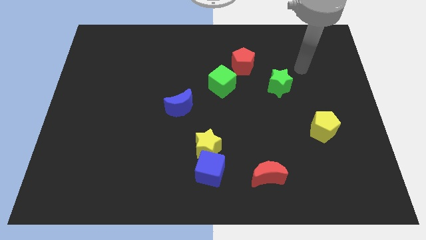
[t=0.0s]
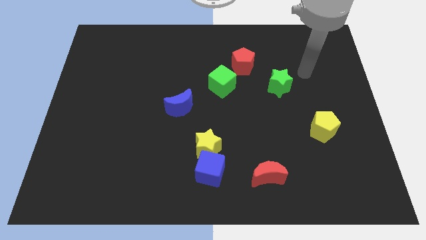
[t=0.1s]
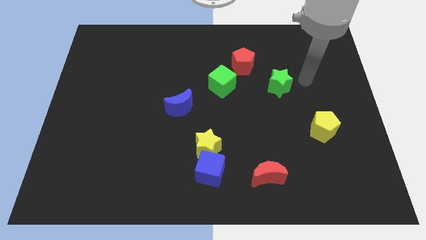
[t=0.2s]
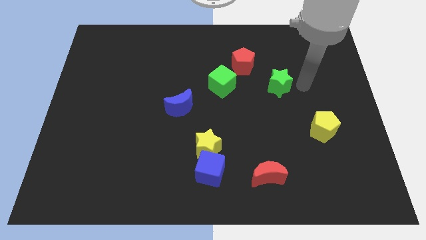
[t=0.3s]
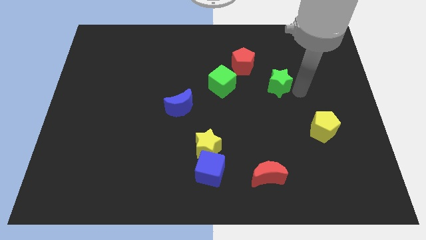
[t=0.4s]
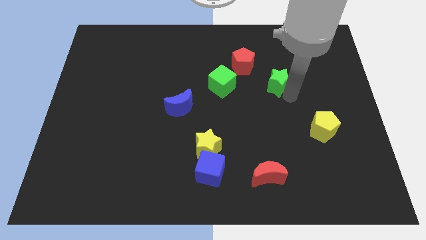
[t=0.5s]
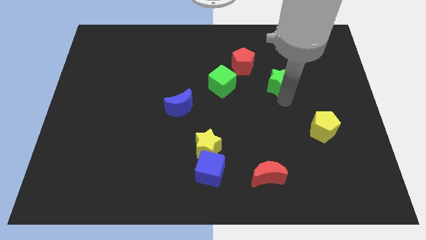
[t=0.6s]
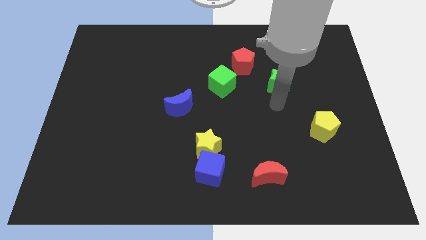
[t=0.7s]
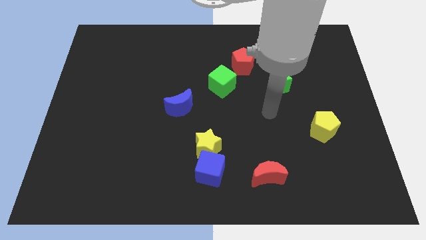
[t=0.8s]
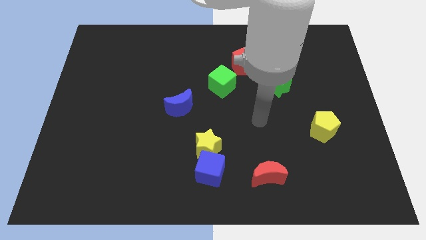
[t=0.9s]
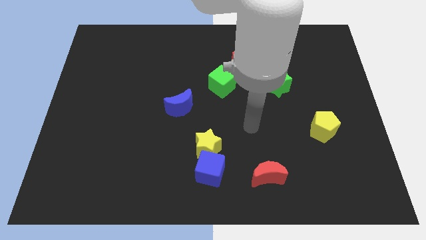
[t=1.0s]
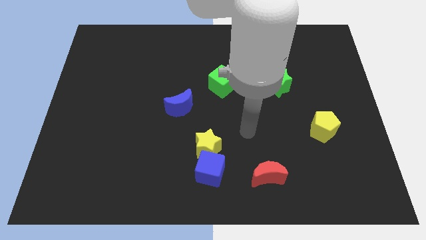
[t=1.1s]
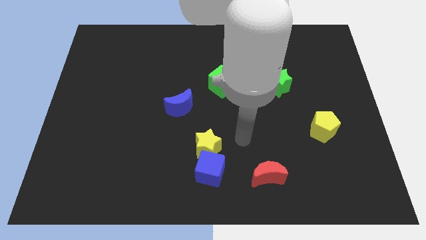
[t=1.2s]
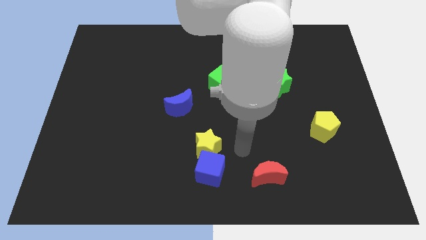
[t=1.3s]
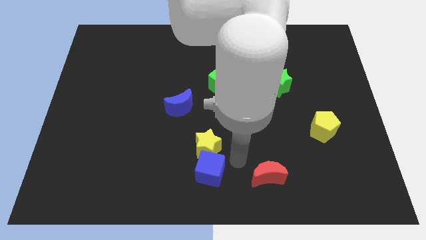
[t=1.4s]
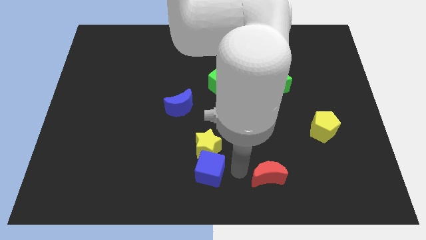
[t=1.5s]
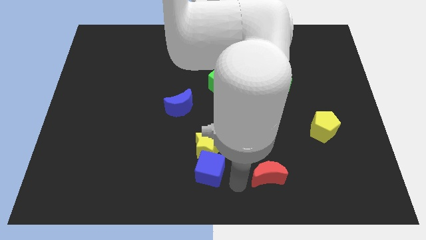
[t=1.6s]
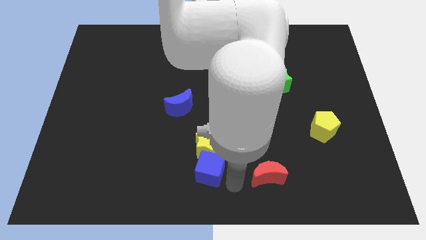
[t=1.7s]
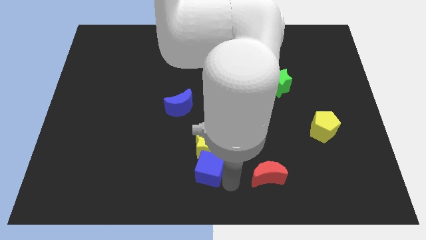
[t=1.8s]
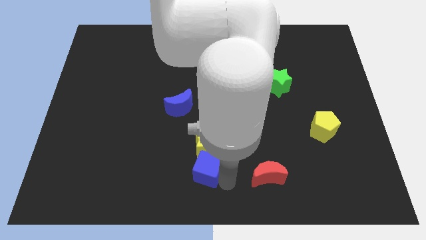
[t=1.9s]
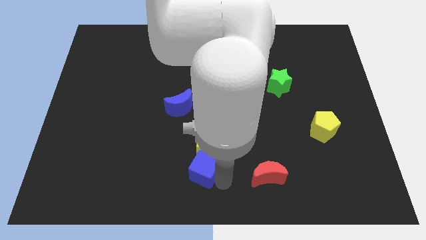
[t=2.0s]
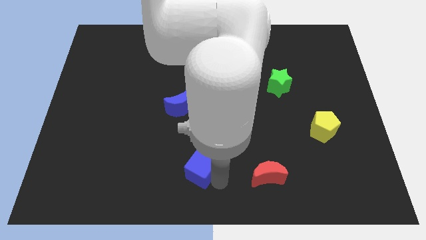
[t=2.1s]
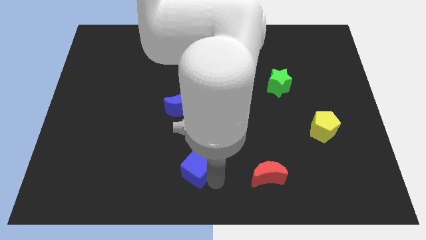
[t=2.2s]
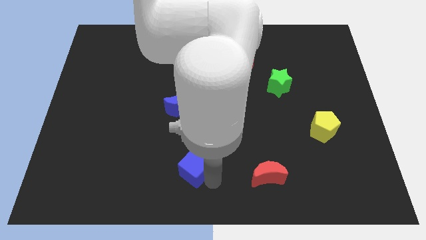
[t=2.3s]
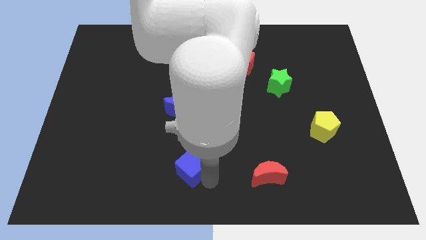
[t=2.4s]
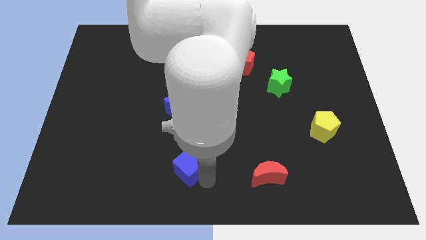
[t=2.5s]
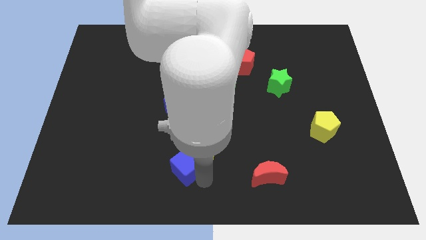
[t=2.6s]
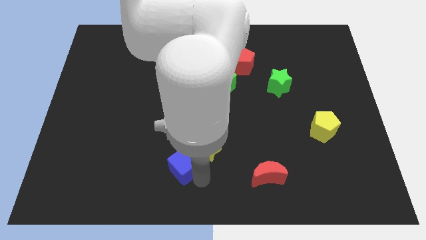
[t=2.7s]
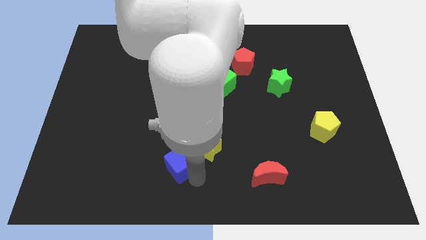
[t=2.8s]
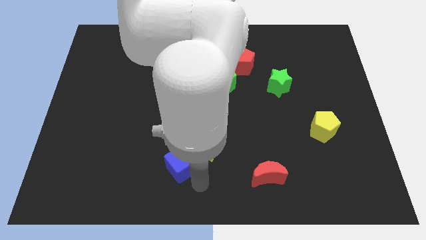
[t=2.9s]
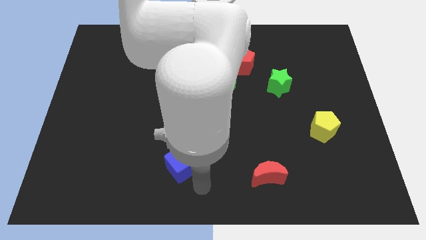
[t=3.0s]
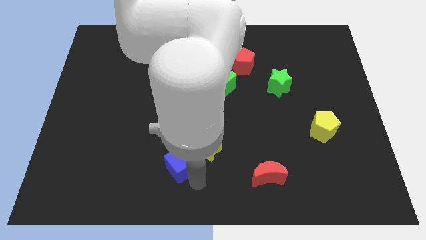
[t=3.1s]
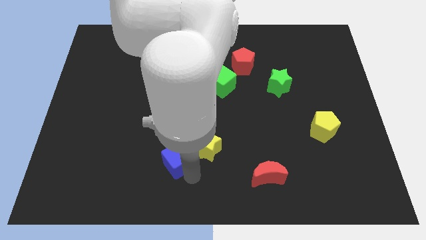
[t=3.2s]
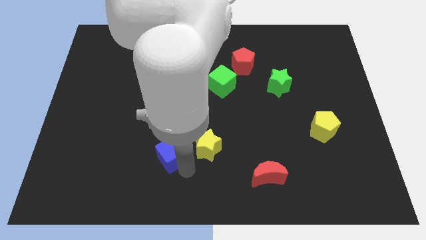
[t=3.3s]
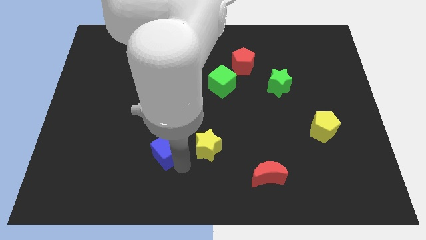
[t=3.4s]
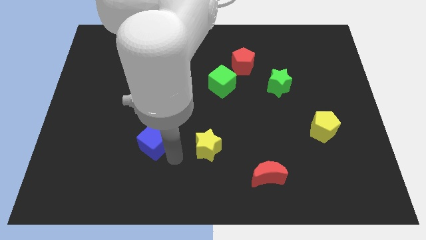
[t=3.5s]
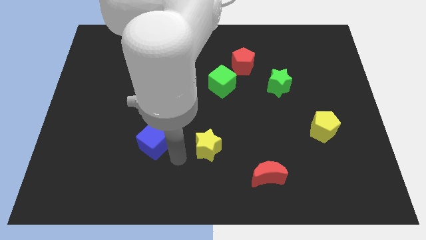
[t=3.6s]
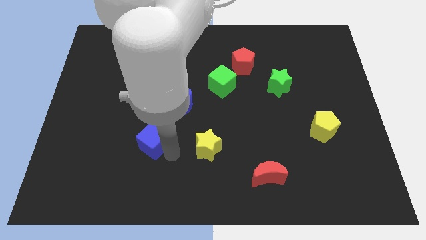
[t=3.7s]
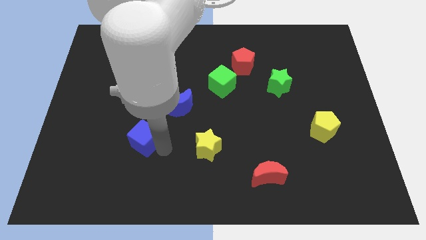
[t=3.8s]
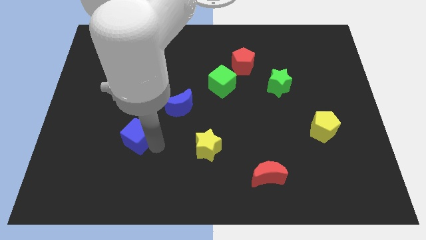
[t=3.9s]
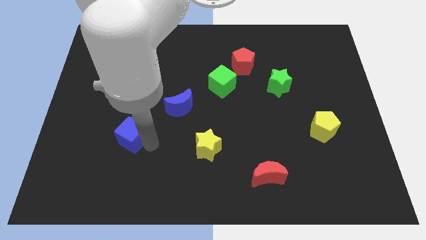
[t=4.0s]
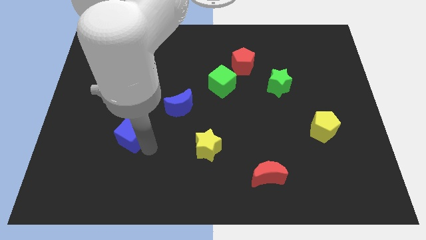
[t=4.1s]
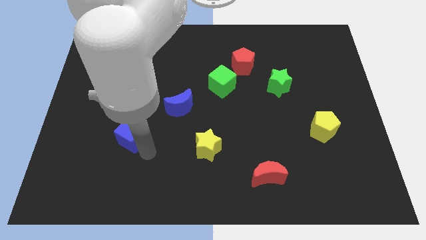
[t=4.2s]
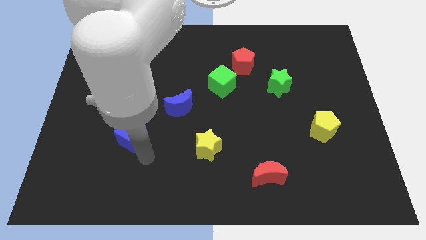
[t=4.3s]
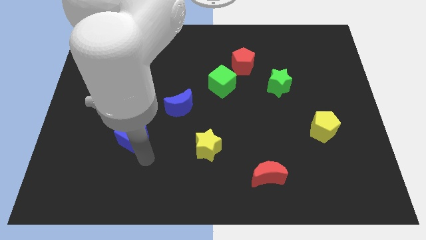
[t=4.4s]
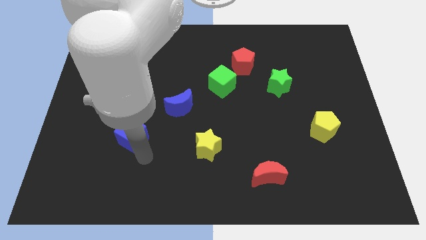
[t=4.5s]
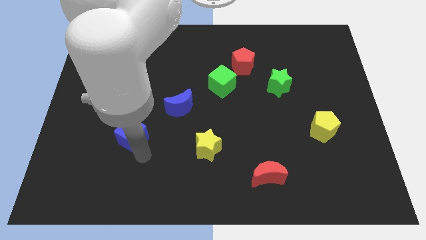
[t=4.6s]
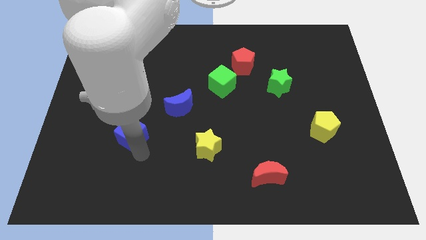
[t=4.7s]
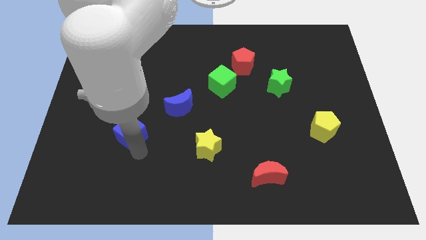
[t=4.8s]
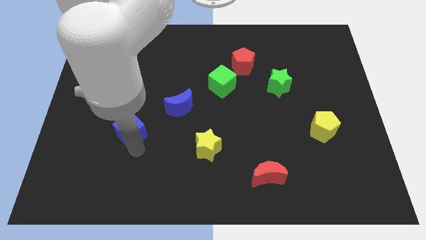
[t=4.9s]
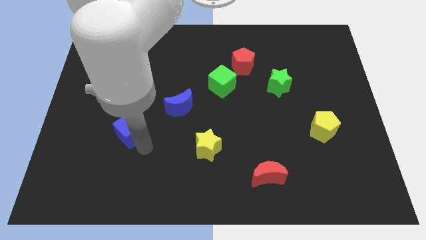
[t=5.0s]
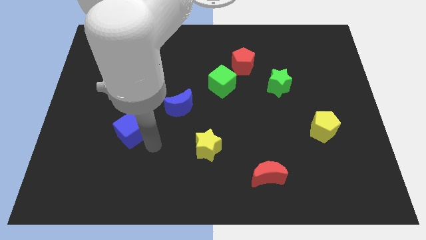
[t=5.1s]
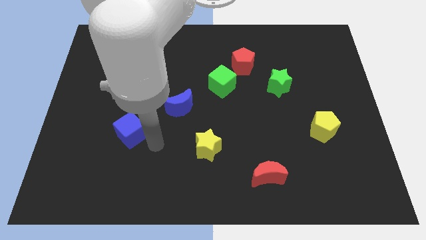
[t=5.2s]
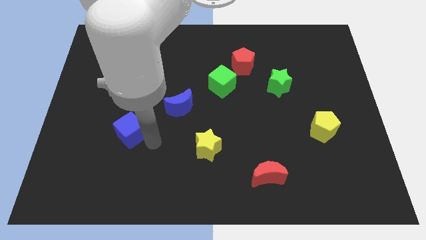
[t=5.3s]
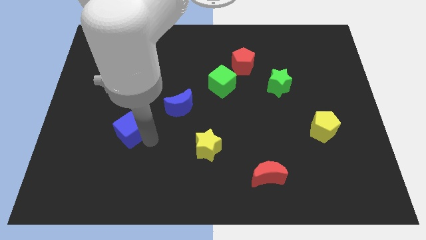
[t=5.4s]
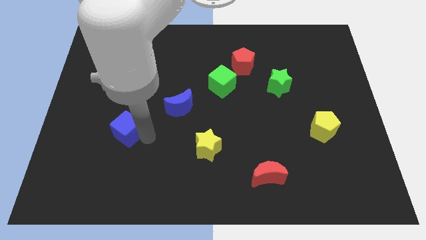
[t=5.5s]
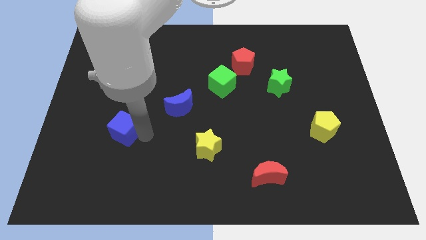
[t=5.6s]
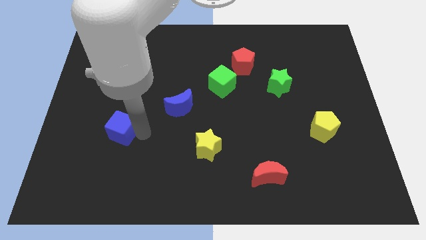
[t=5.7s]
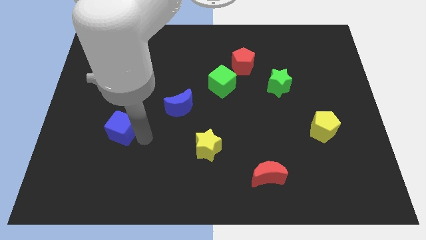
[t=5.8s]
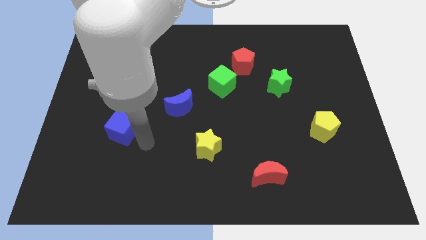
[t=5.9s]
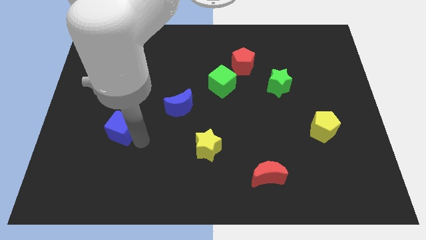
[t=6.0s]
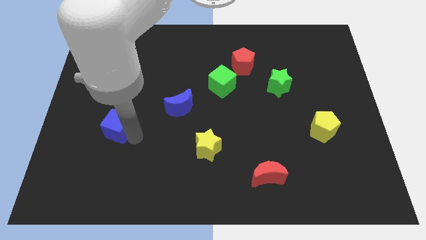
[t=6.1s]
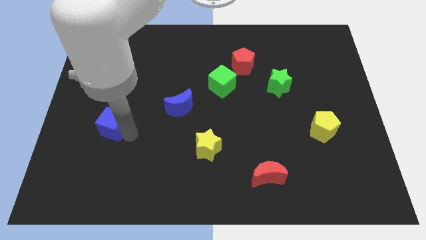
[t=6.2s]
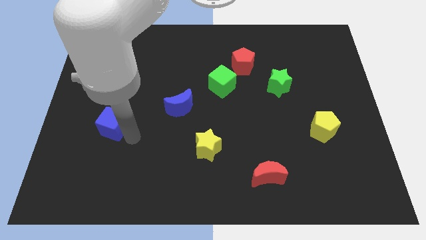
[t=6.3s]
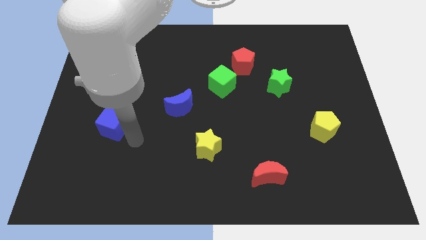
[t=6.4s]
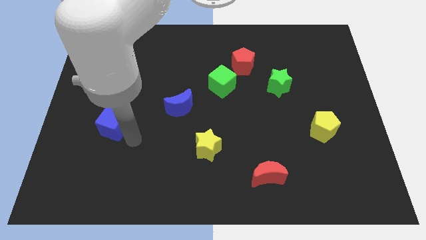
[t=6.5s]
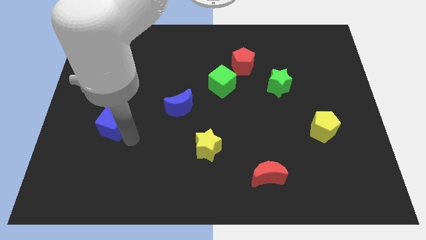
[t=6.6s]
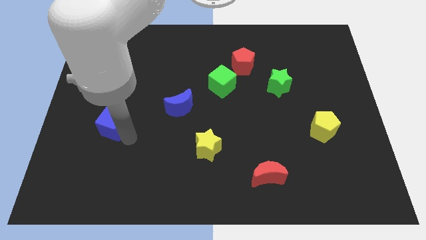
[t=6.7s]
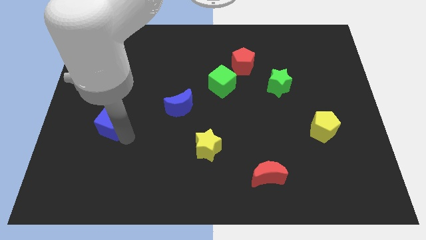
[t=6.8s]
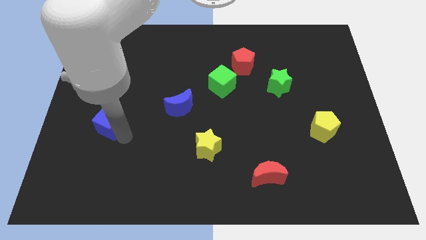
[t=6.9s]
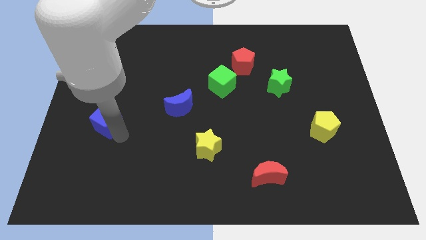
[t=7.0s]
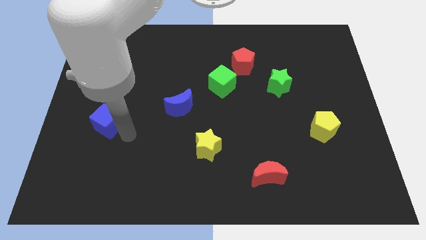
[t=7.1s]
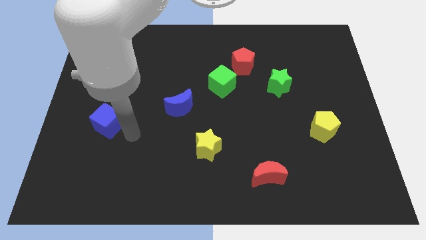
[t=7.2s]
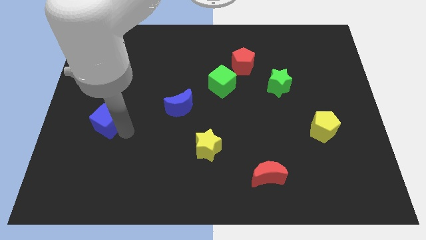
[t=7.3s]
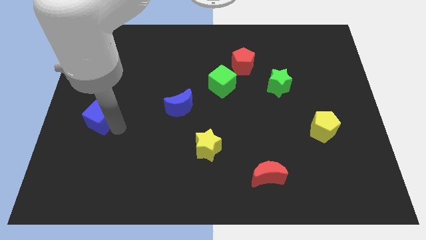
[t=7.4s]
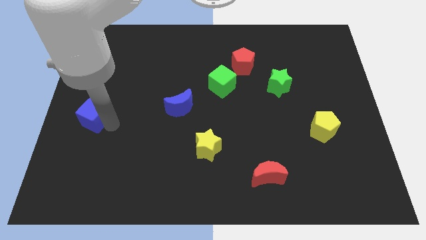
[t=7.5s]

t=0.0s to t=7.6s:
slide the blue cube to the left side of the board
